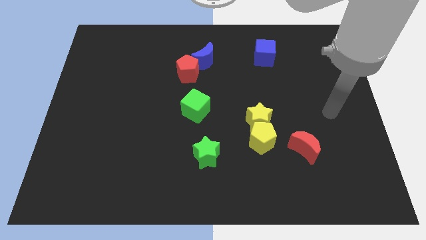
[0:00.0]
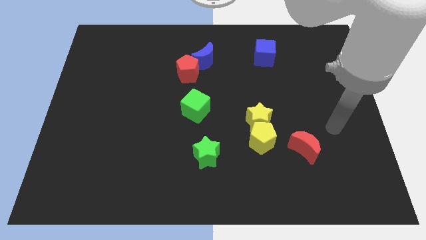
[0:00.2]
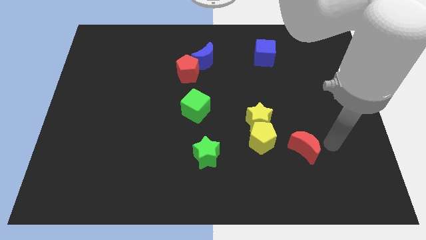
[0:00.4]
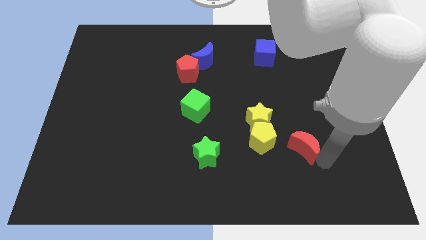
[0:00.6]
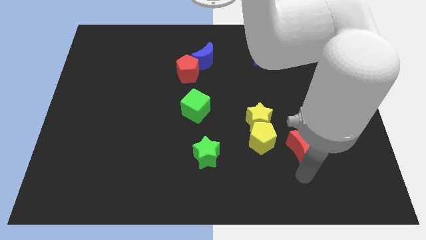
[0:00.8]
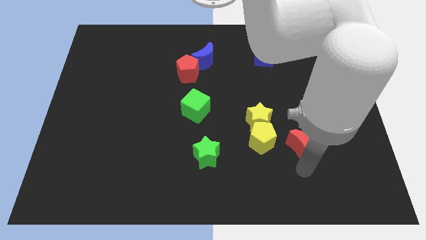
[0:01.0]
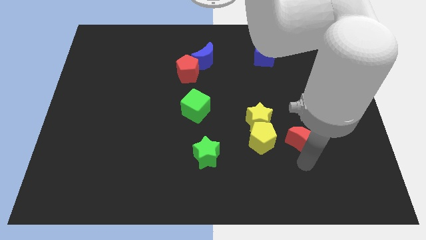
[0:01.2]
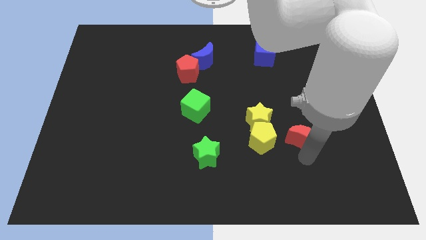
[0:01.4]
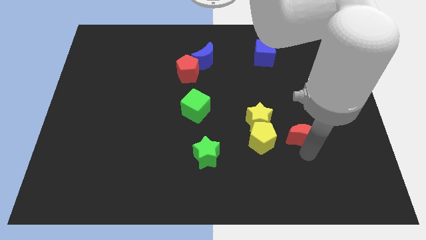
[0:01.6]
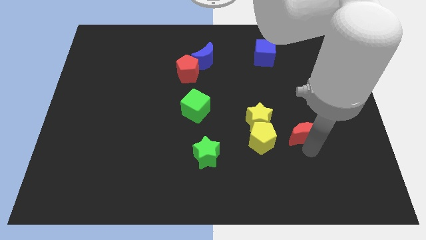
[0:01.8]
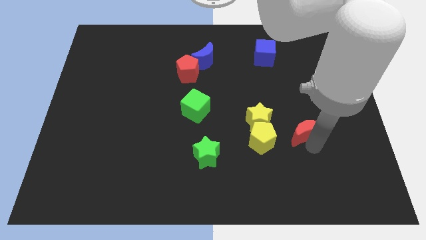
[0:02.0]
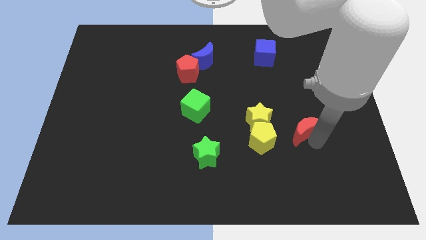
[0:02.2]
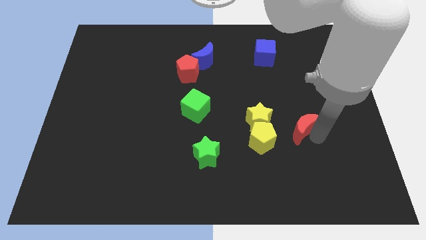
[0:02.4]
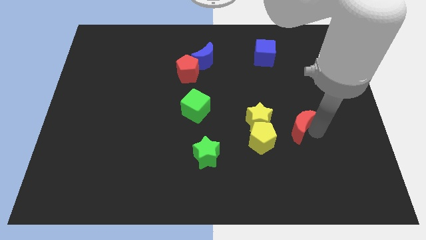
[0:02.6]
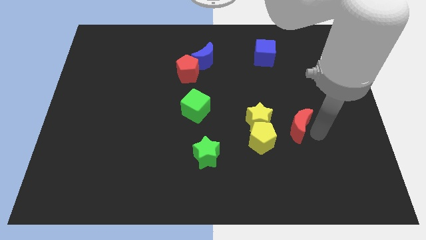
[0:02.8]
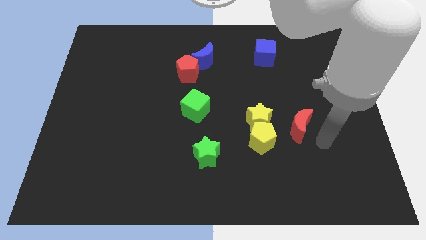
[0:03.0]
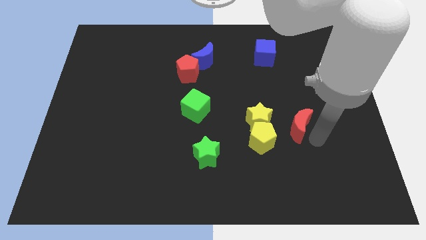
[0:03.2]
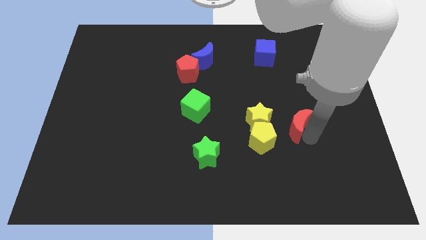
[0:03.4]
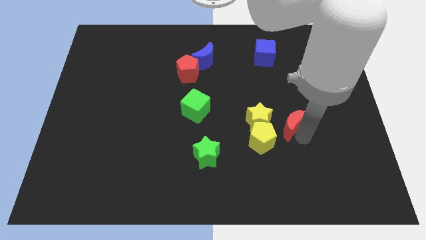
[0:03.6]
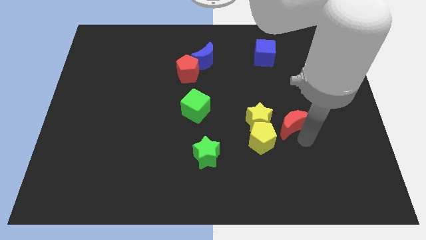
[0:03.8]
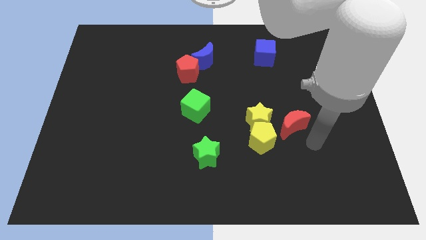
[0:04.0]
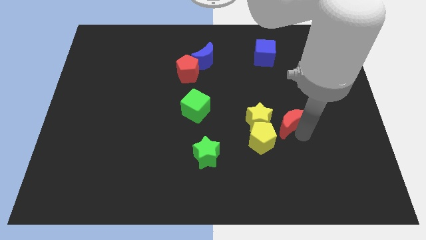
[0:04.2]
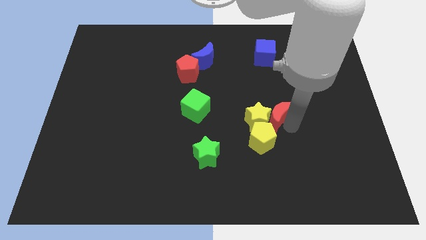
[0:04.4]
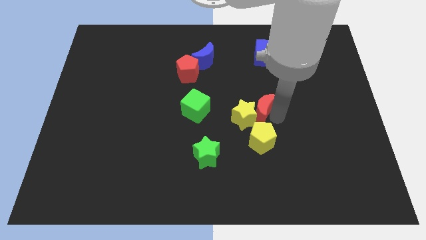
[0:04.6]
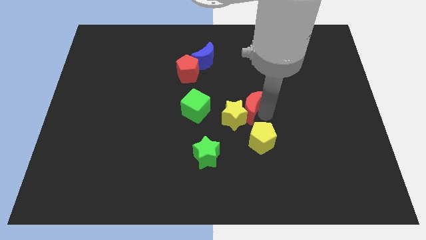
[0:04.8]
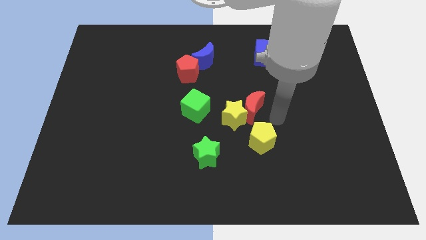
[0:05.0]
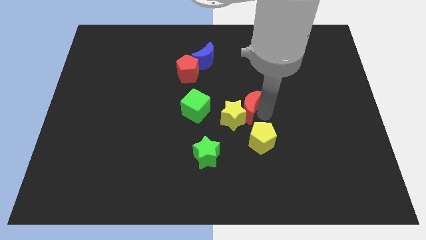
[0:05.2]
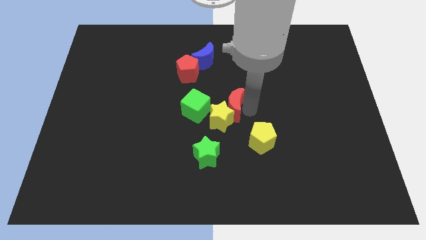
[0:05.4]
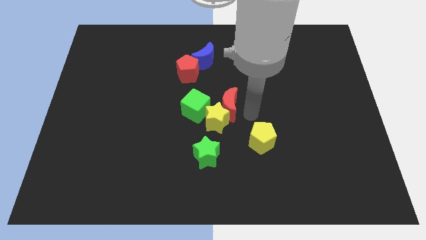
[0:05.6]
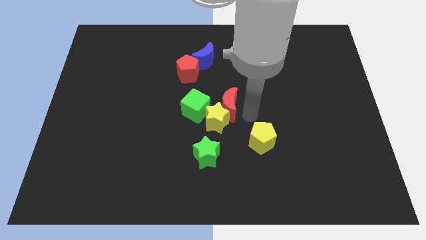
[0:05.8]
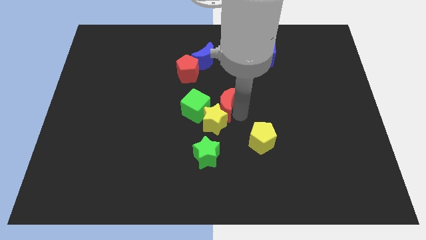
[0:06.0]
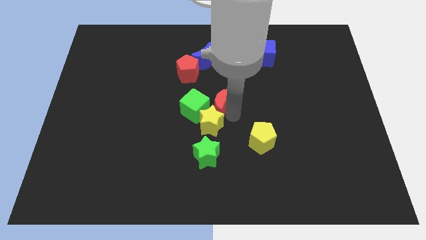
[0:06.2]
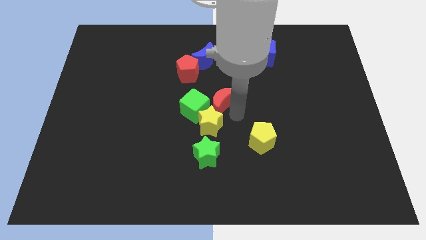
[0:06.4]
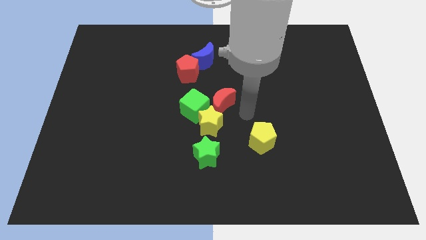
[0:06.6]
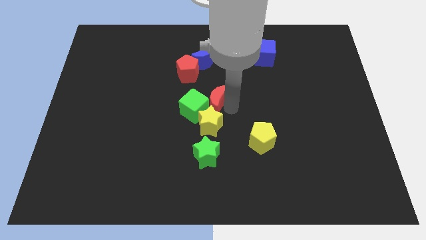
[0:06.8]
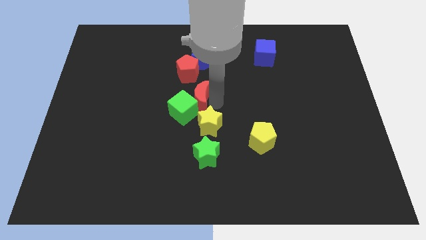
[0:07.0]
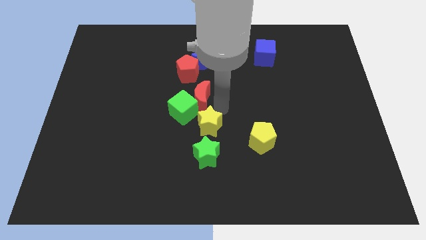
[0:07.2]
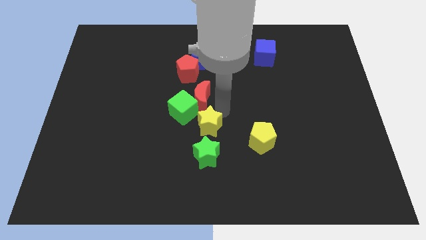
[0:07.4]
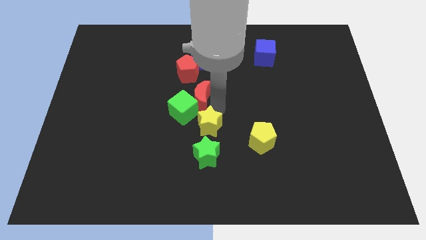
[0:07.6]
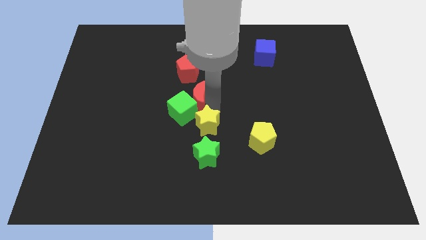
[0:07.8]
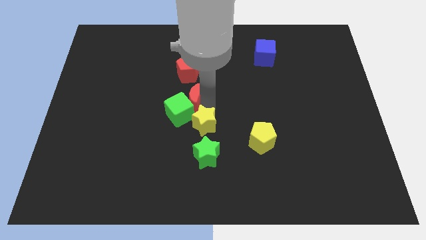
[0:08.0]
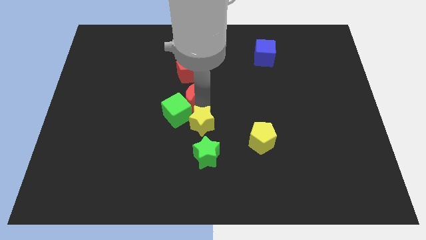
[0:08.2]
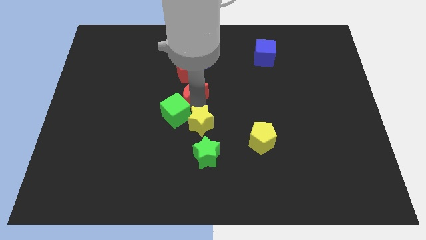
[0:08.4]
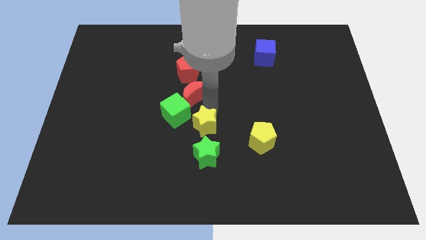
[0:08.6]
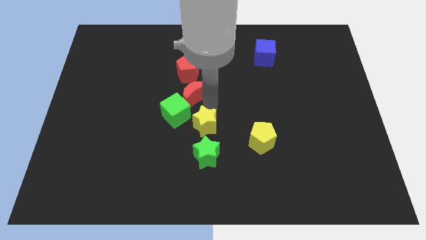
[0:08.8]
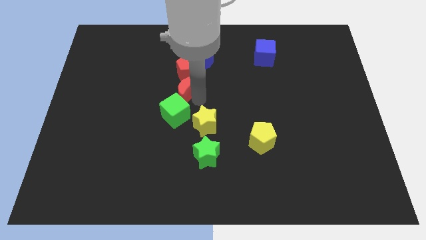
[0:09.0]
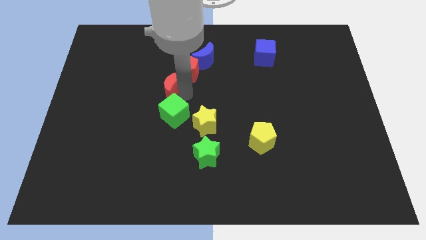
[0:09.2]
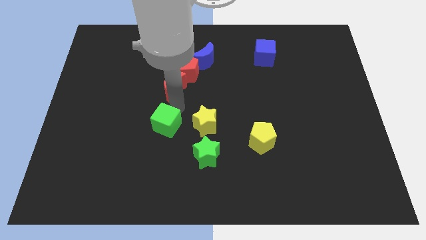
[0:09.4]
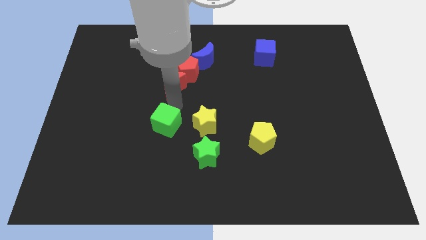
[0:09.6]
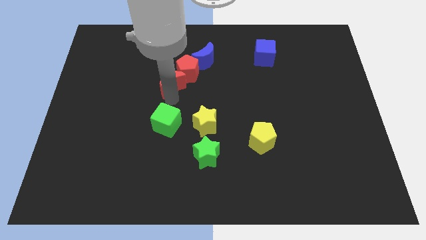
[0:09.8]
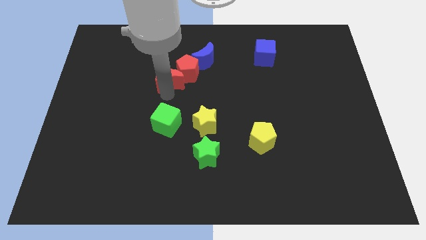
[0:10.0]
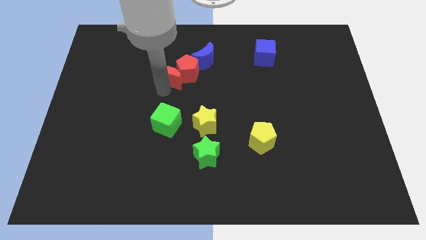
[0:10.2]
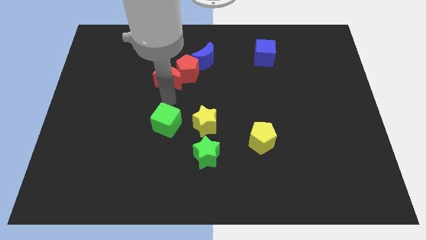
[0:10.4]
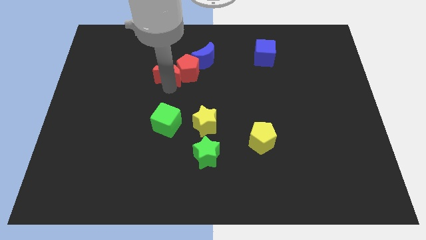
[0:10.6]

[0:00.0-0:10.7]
put the red moon to the top left of the red pentagon
